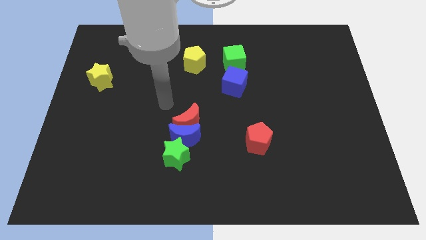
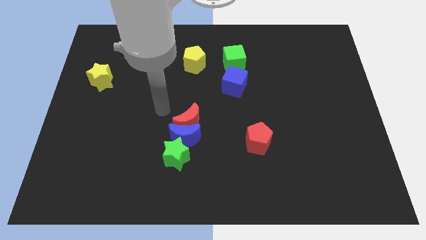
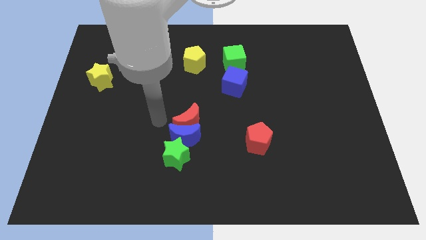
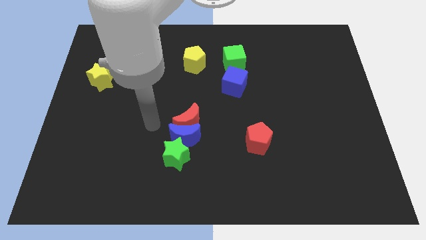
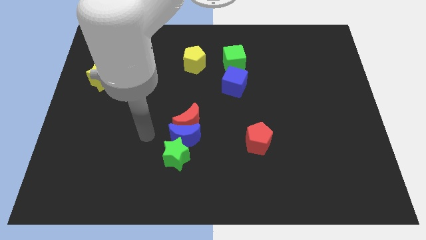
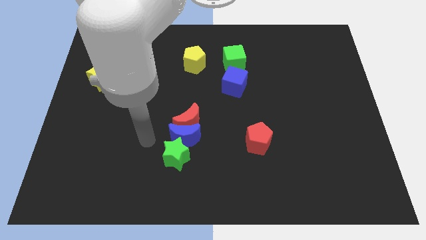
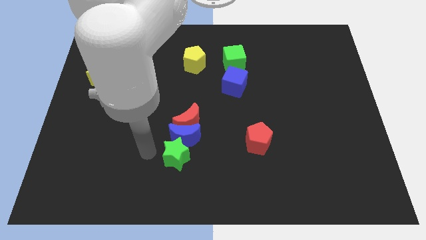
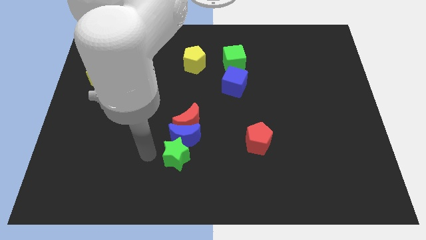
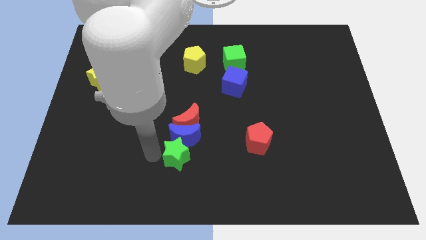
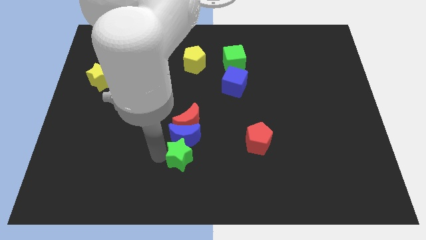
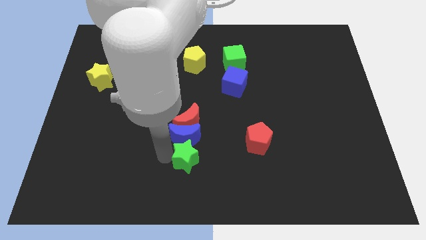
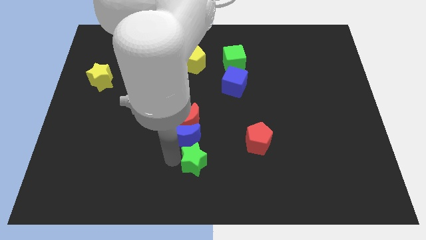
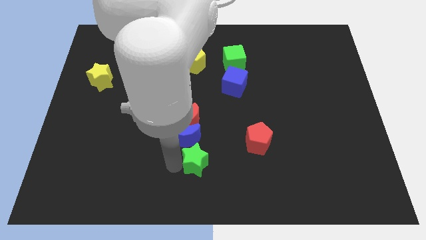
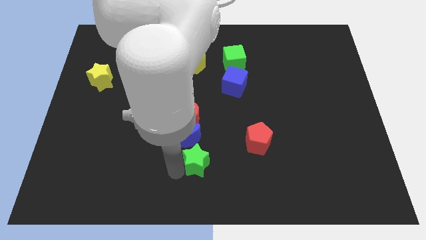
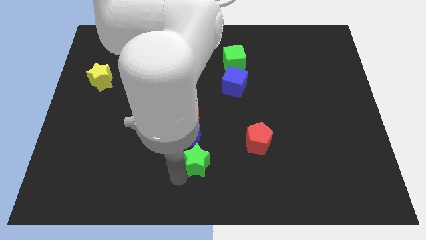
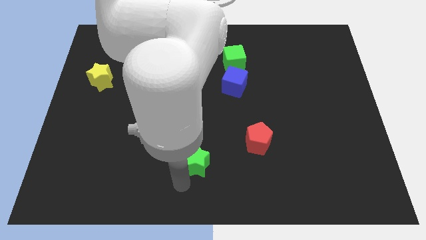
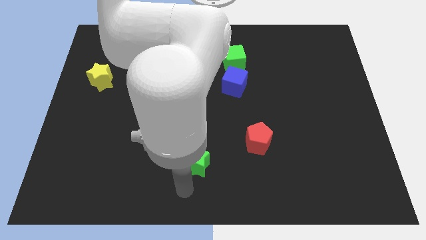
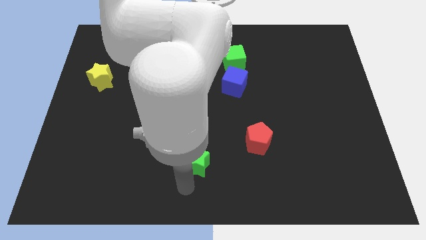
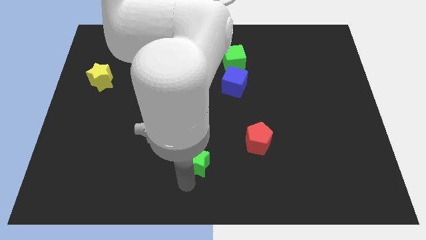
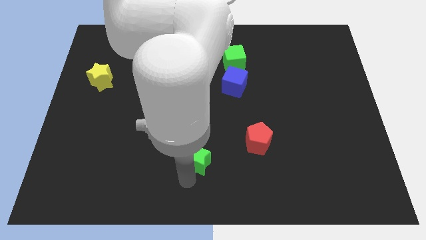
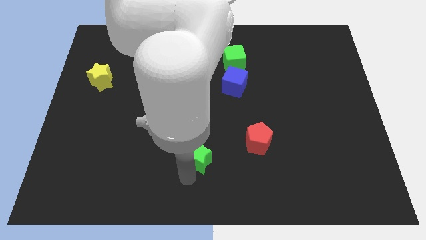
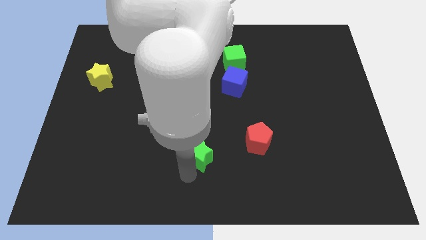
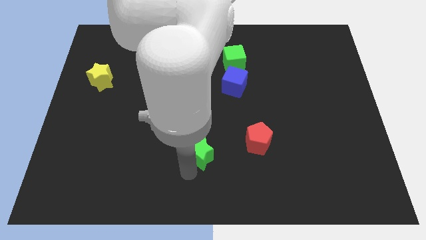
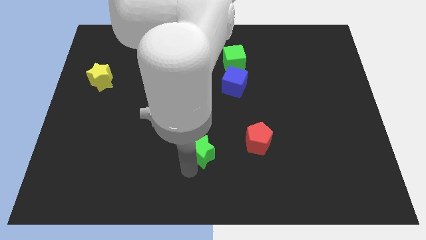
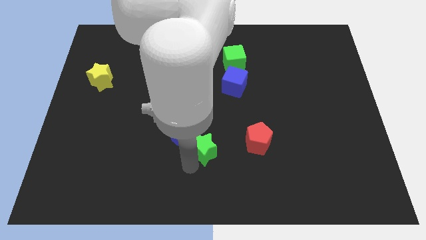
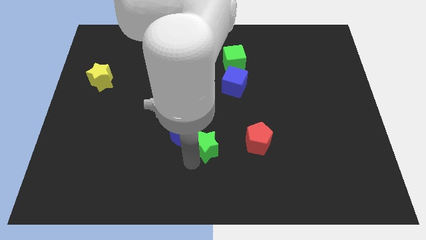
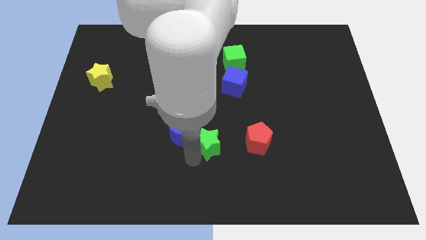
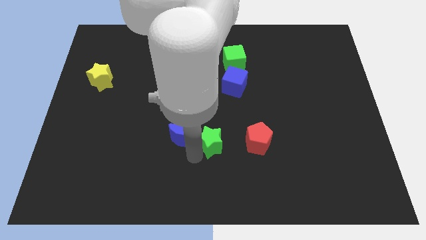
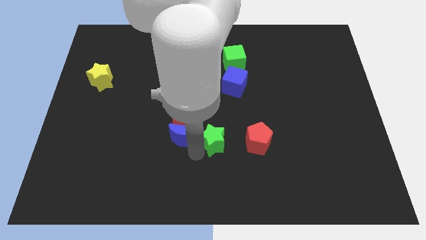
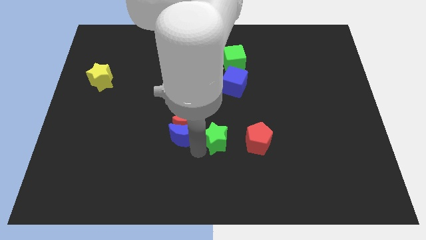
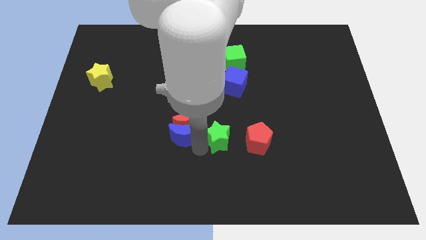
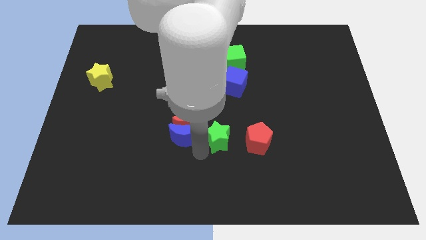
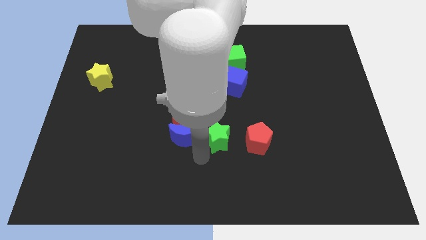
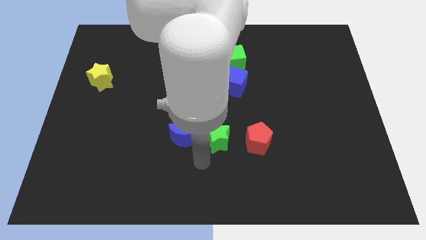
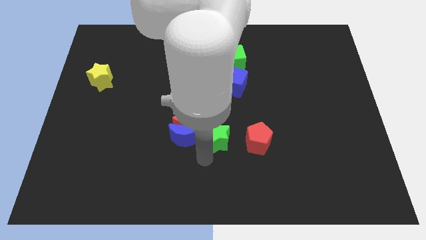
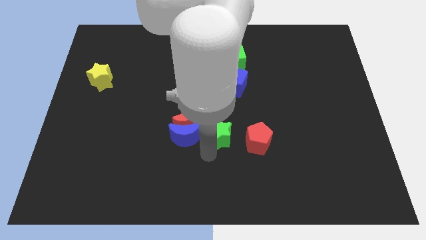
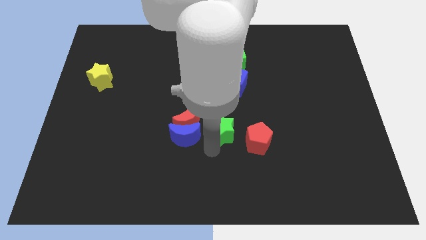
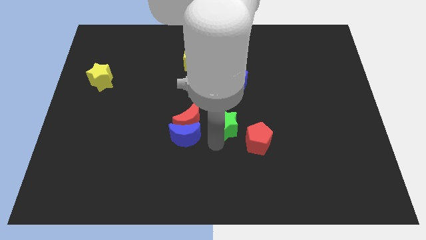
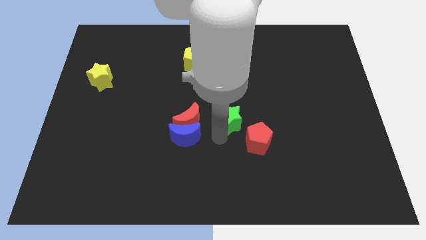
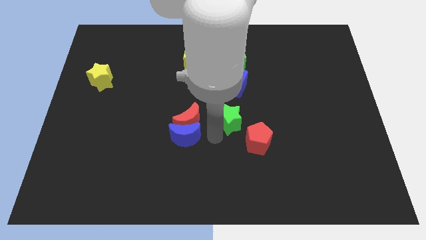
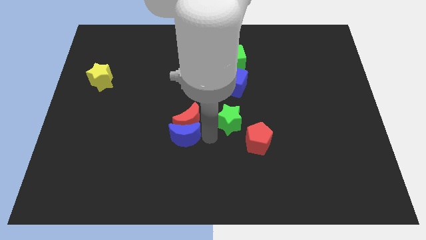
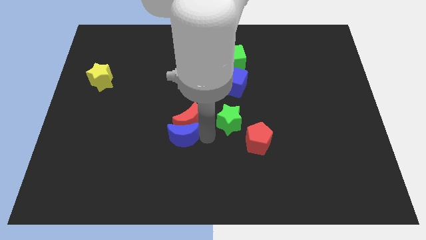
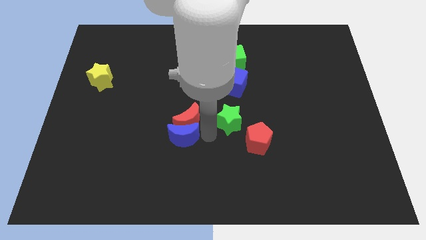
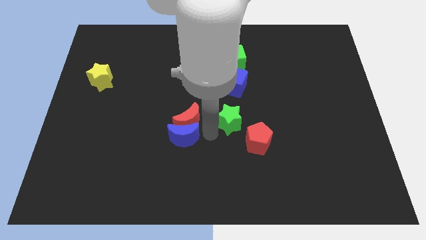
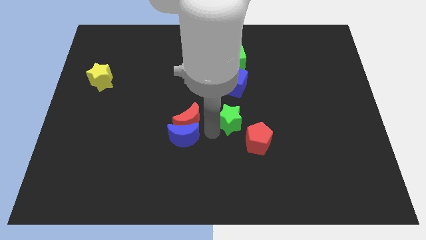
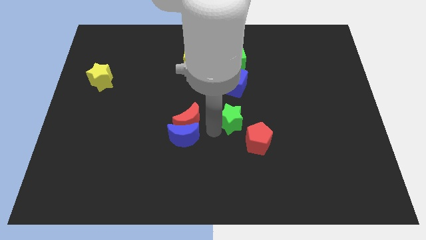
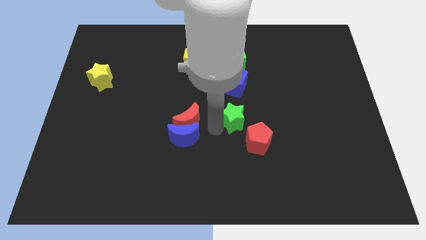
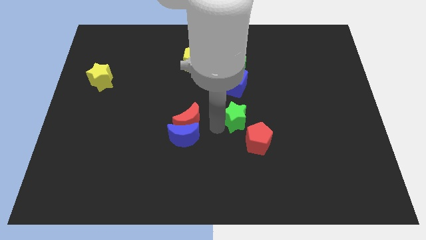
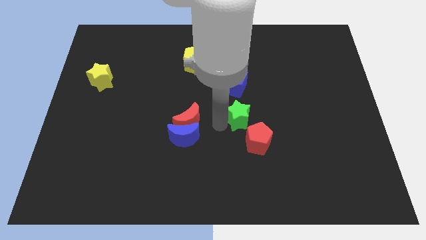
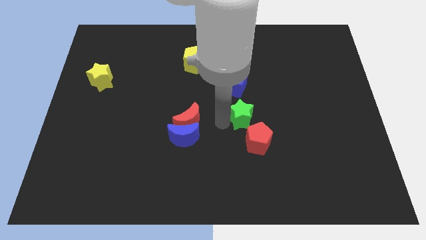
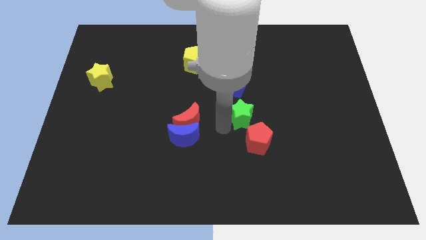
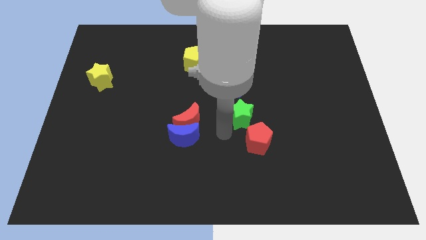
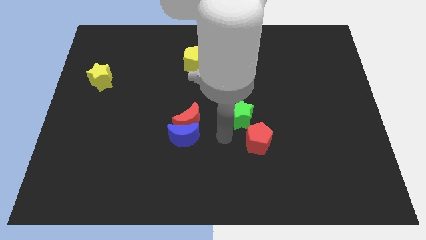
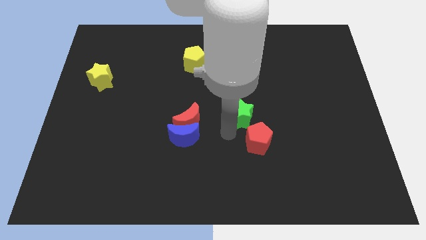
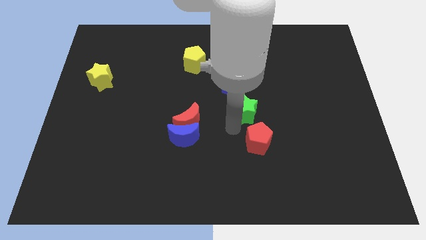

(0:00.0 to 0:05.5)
move the green star to the bottom right of the blue cube

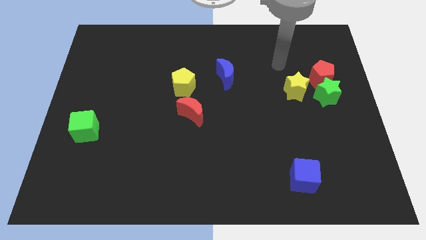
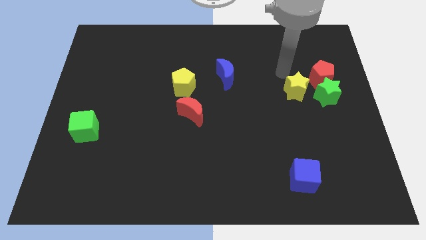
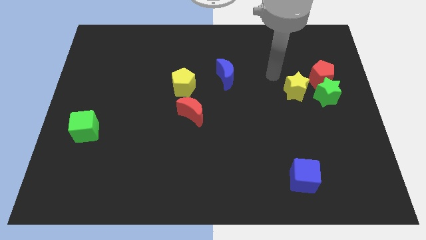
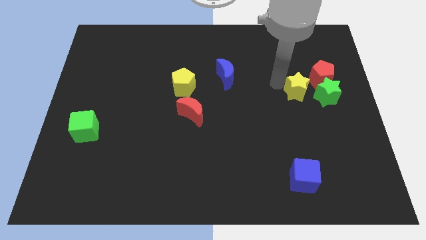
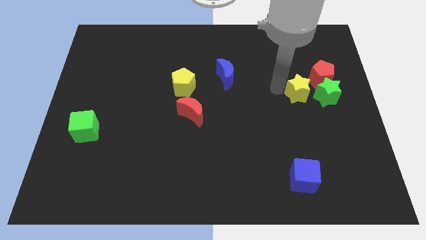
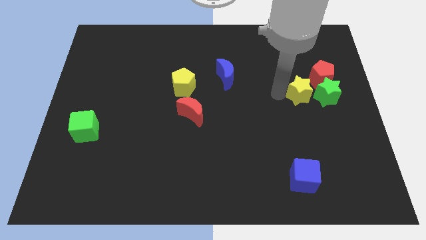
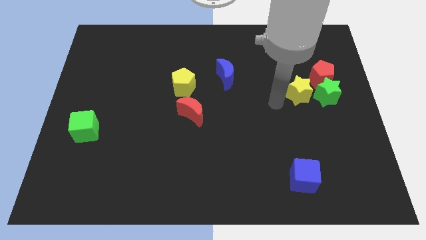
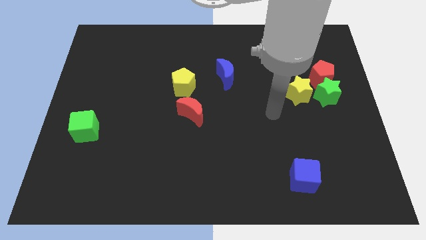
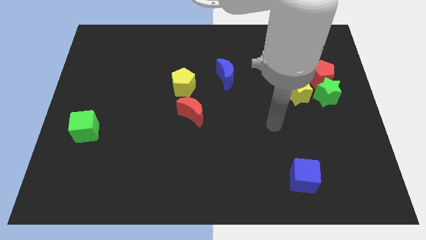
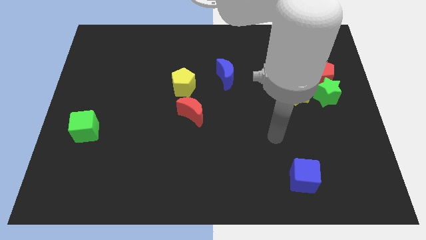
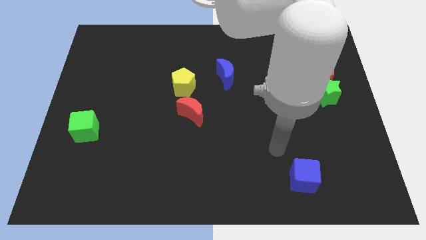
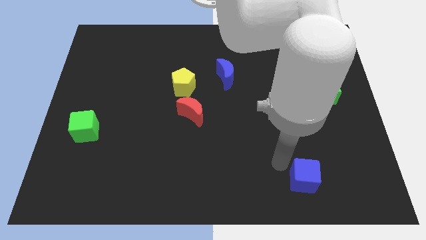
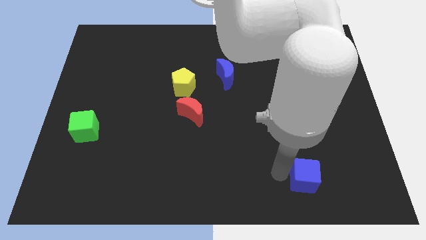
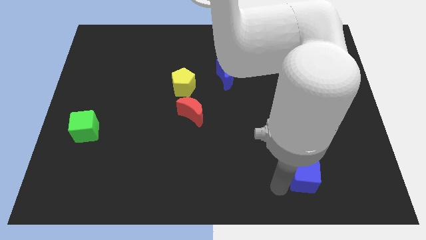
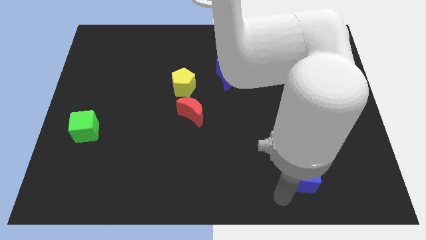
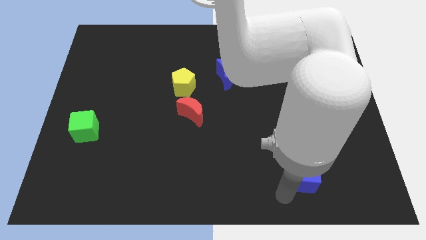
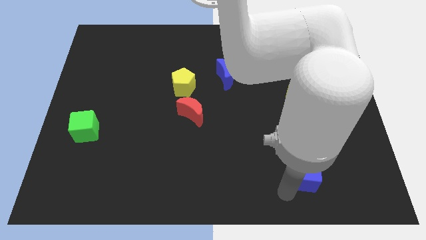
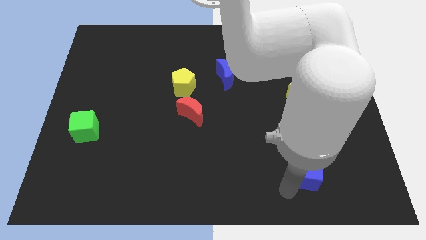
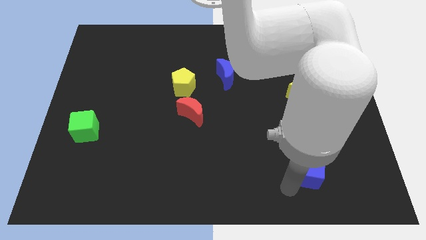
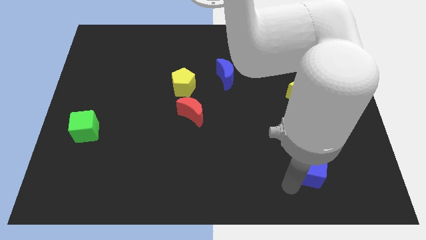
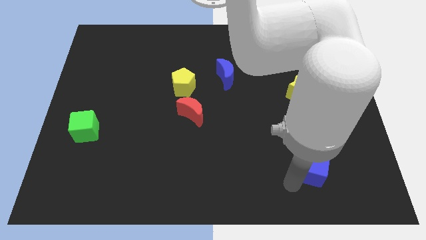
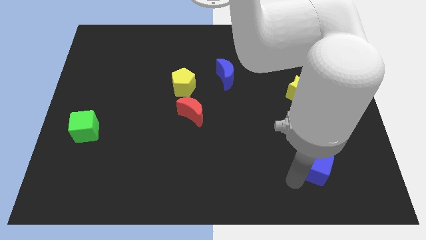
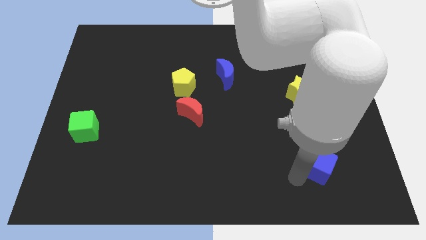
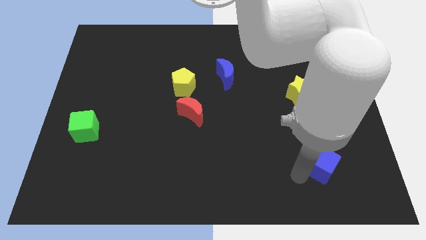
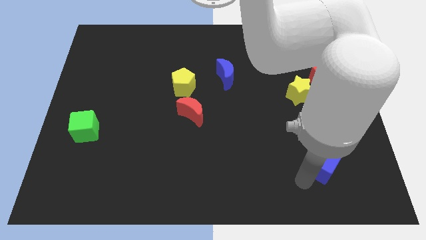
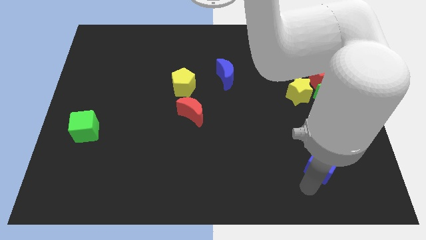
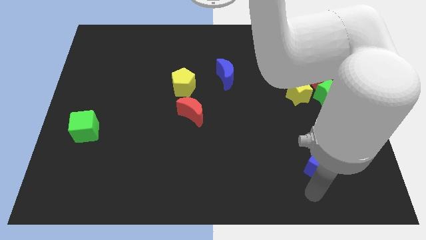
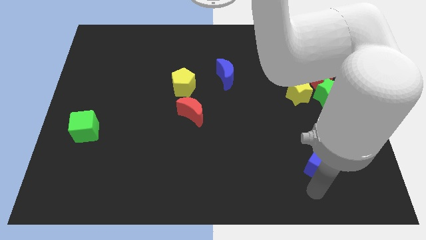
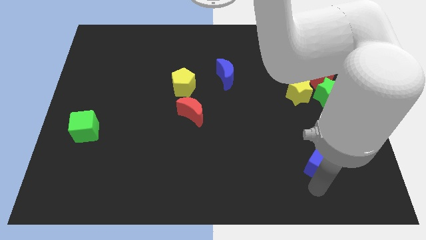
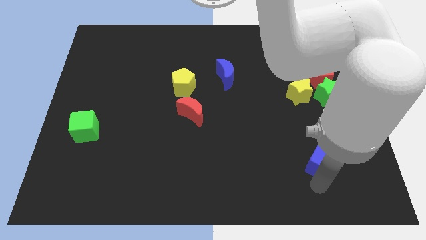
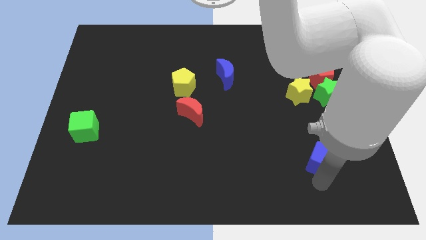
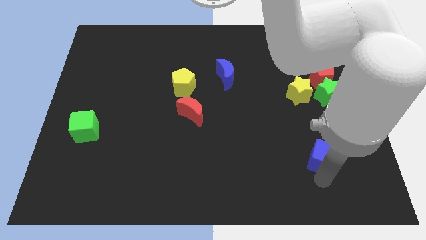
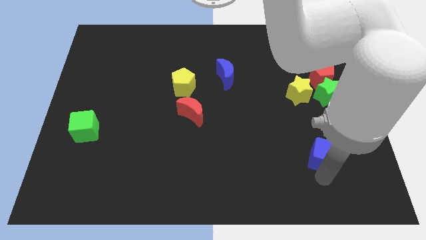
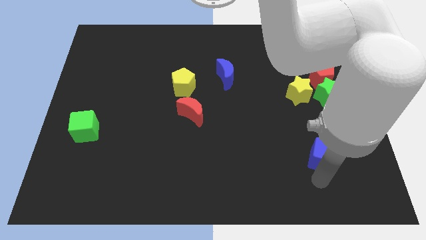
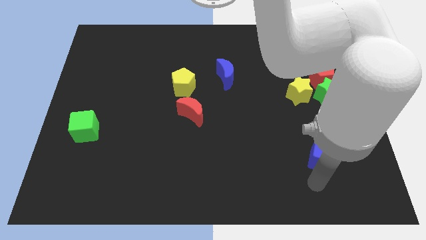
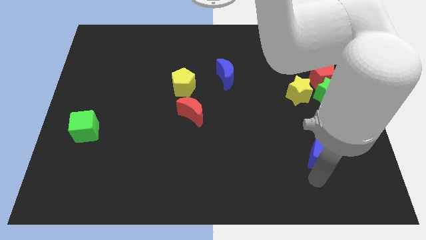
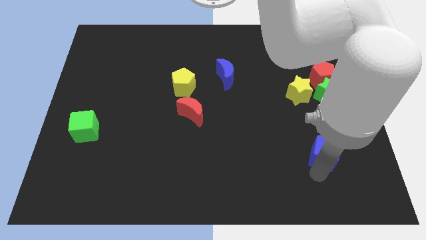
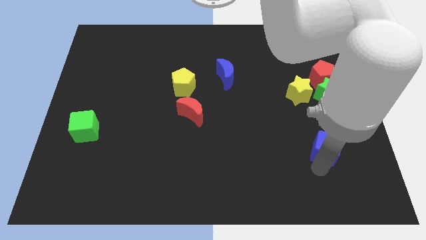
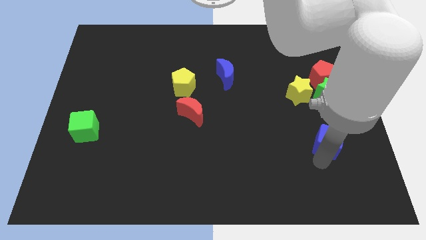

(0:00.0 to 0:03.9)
push the blue cube to the bottom of the green star
